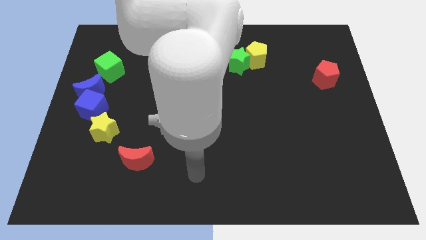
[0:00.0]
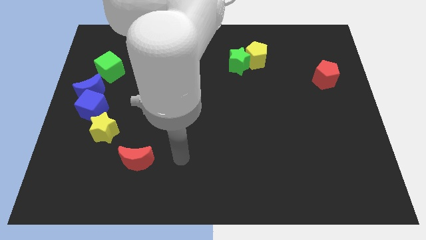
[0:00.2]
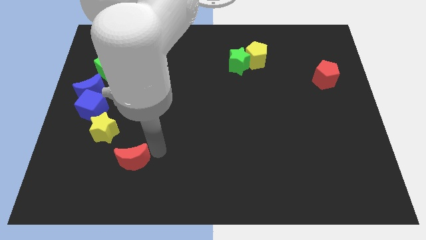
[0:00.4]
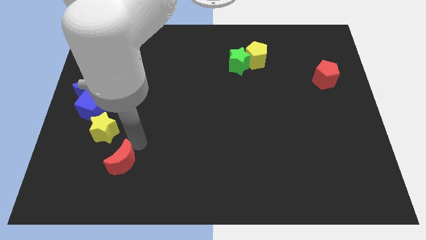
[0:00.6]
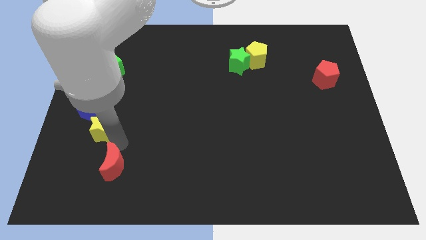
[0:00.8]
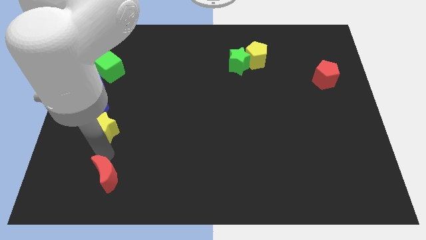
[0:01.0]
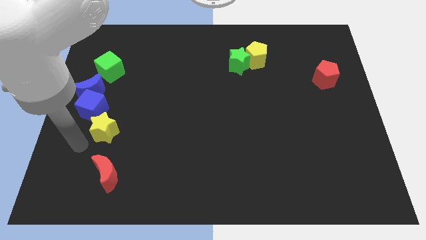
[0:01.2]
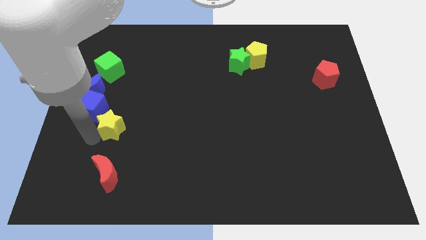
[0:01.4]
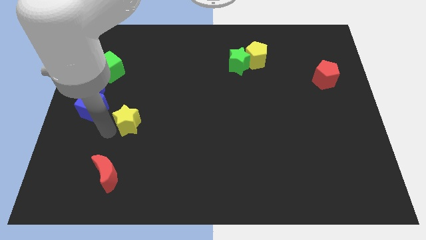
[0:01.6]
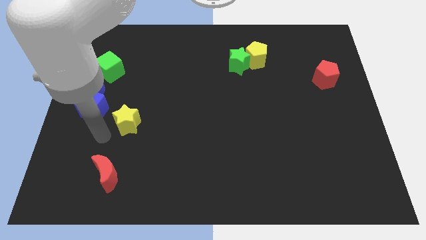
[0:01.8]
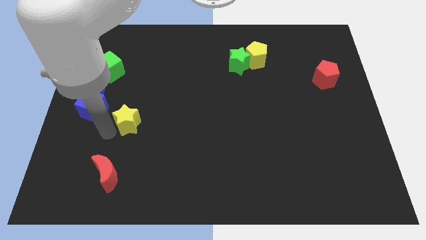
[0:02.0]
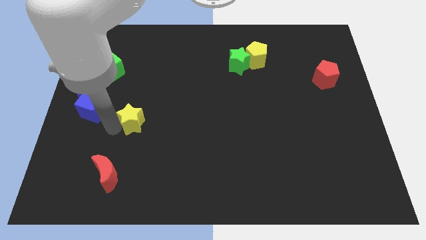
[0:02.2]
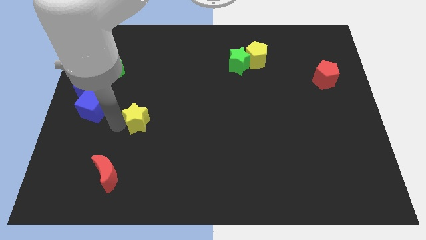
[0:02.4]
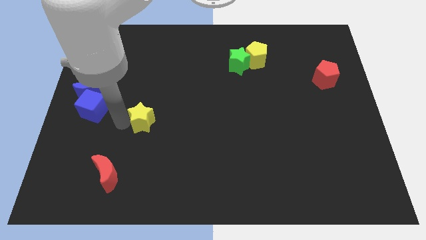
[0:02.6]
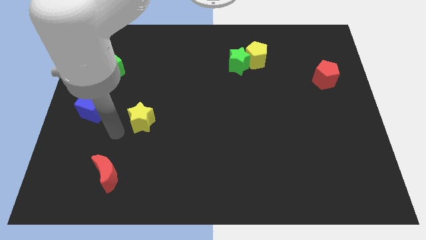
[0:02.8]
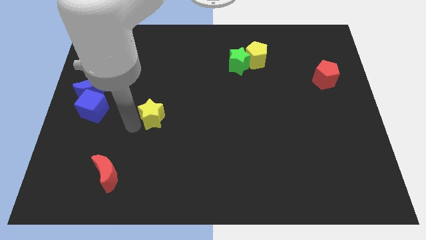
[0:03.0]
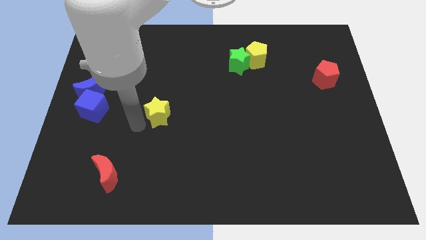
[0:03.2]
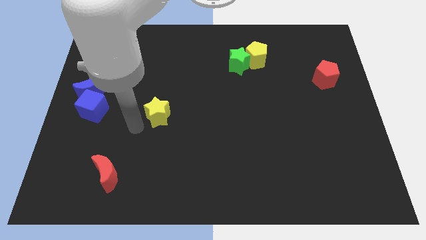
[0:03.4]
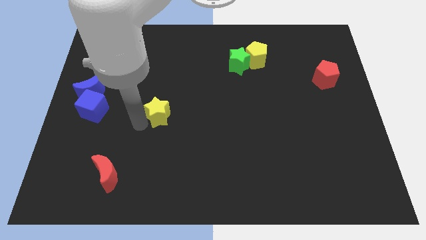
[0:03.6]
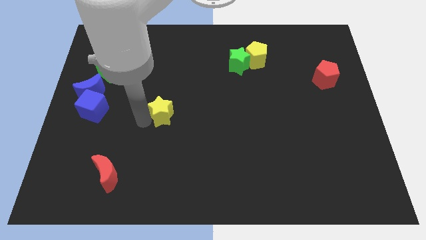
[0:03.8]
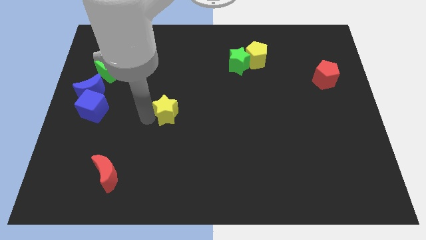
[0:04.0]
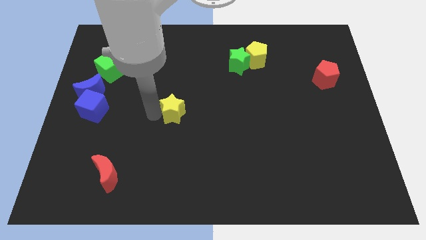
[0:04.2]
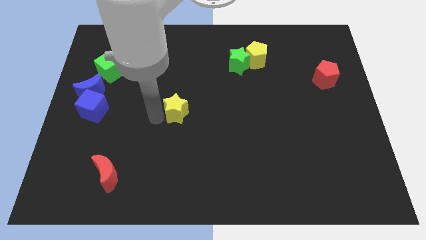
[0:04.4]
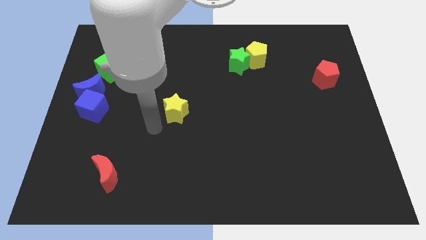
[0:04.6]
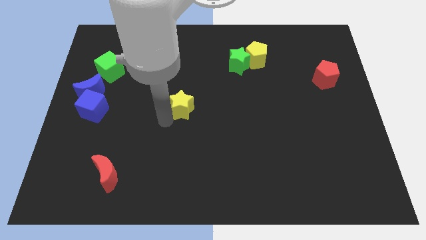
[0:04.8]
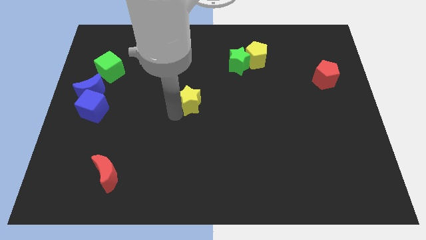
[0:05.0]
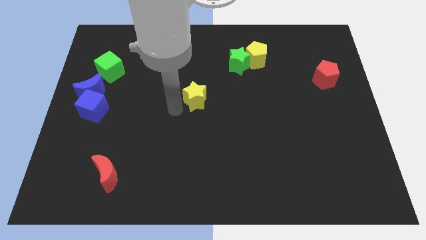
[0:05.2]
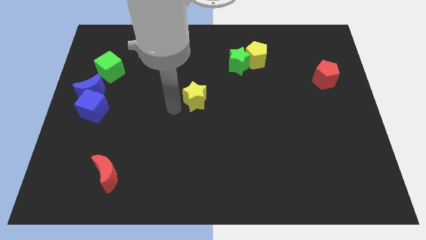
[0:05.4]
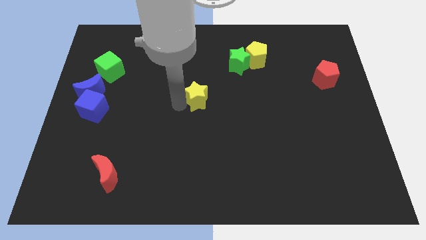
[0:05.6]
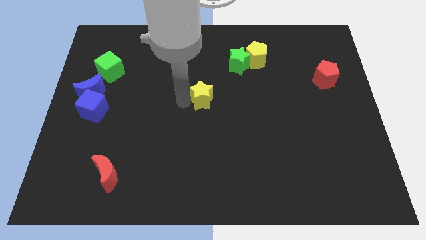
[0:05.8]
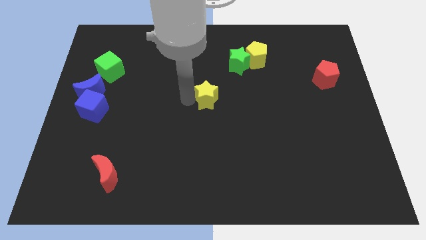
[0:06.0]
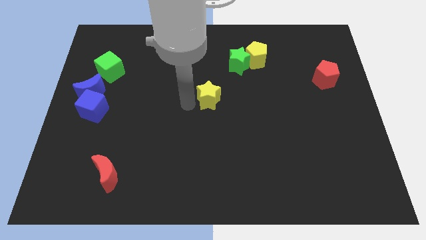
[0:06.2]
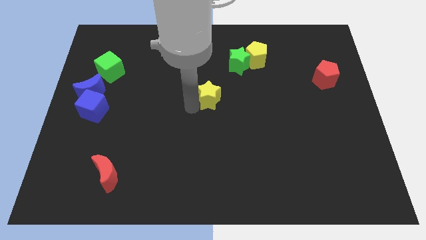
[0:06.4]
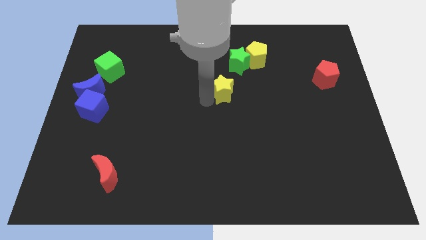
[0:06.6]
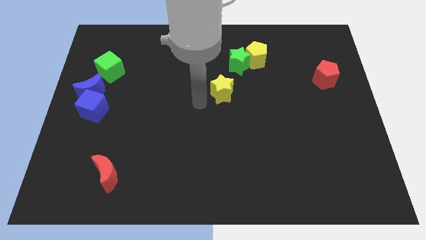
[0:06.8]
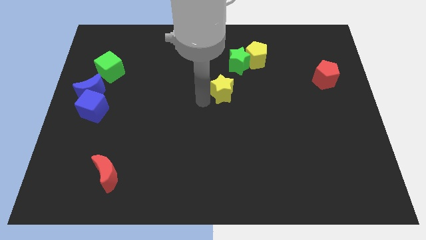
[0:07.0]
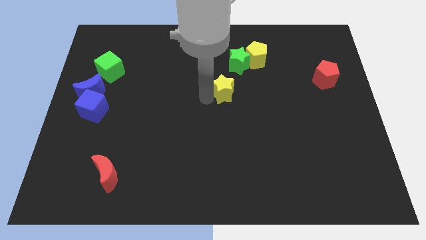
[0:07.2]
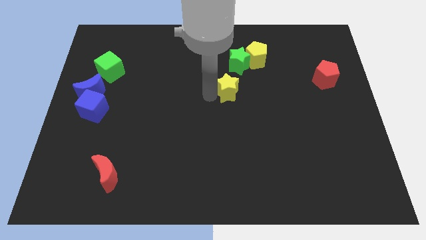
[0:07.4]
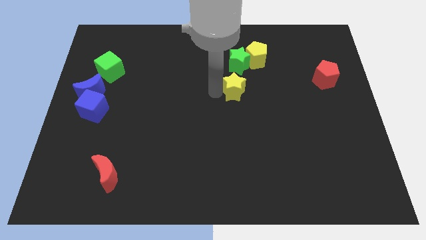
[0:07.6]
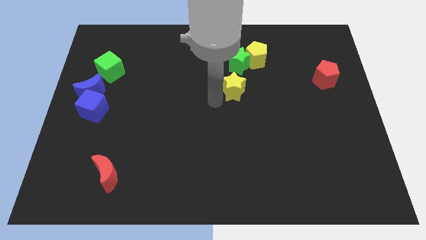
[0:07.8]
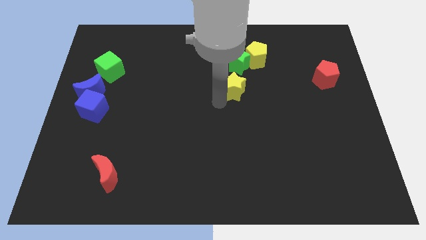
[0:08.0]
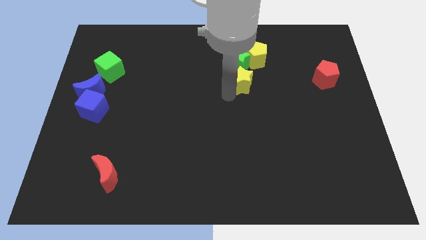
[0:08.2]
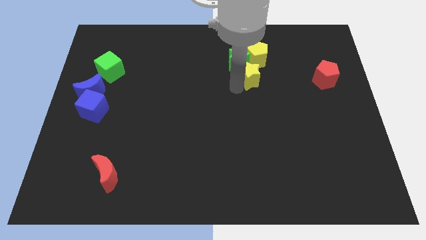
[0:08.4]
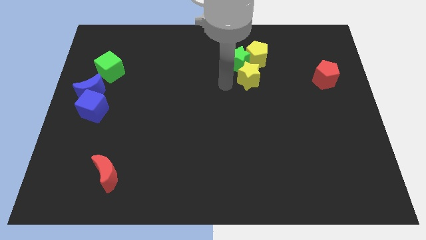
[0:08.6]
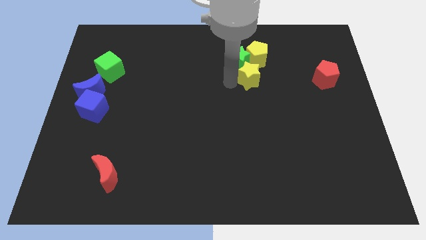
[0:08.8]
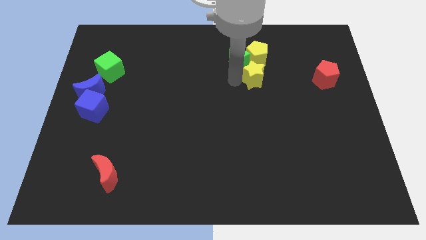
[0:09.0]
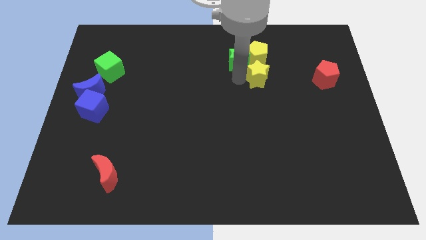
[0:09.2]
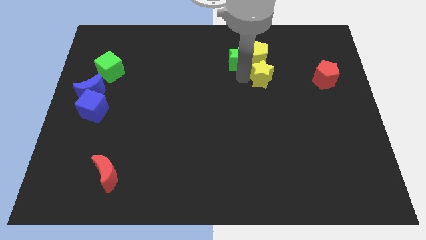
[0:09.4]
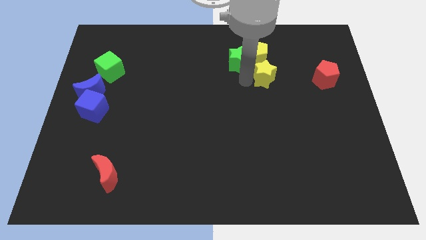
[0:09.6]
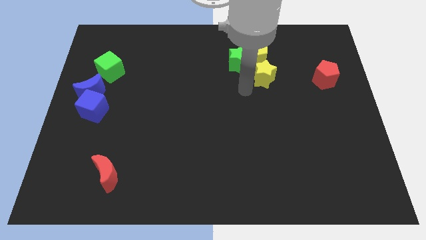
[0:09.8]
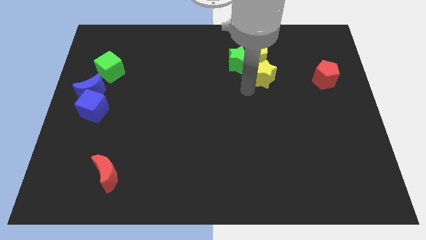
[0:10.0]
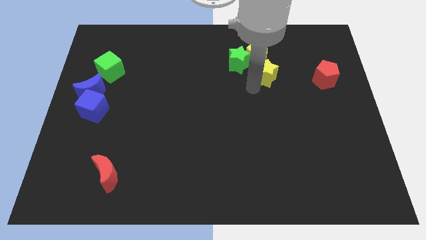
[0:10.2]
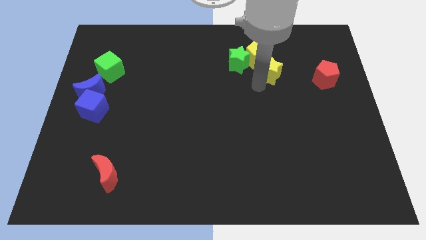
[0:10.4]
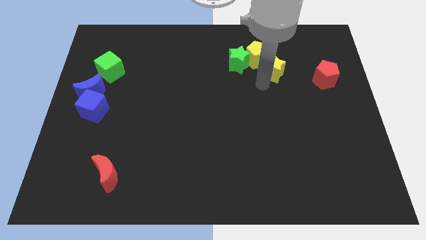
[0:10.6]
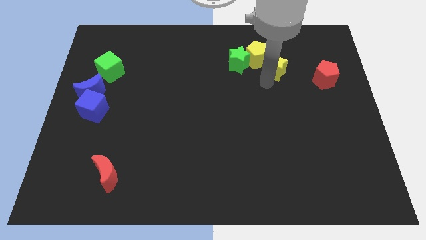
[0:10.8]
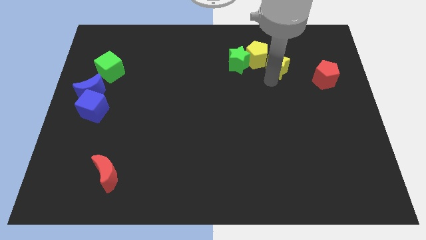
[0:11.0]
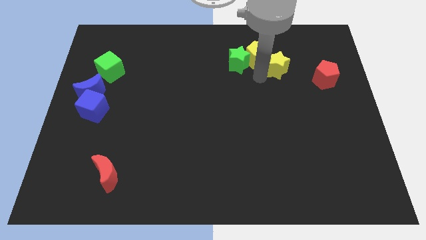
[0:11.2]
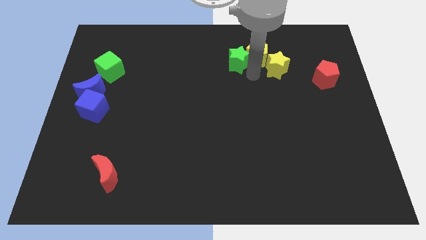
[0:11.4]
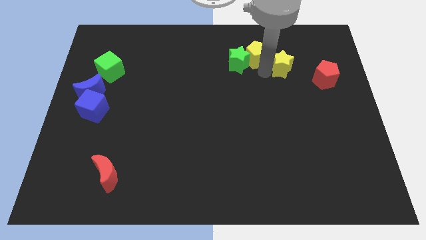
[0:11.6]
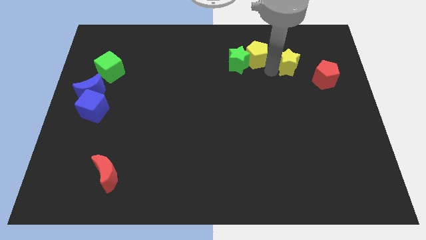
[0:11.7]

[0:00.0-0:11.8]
put the yellow star diagonally up and to the left of the red pentagon

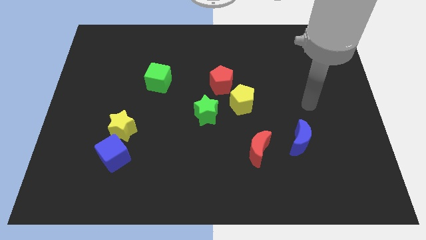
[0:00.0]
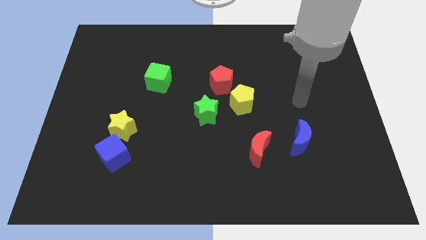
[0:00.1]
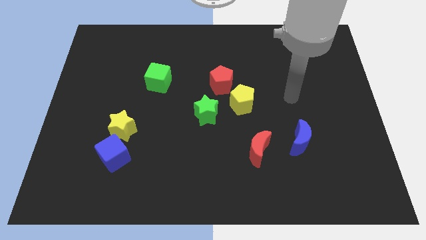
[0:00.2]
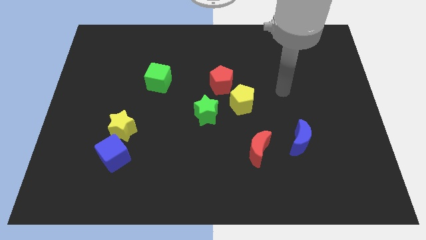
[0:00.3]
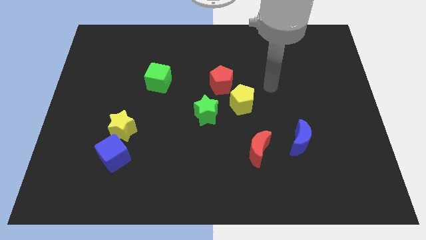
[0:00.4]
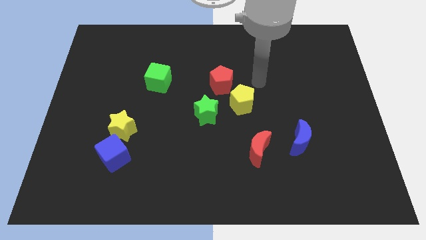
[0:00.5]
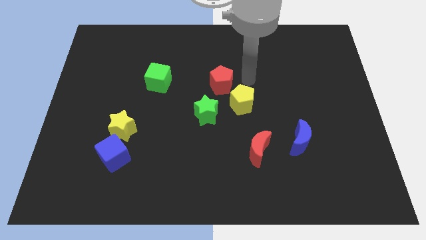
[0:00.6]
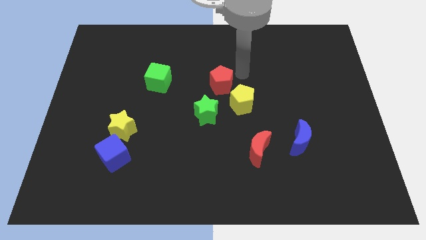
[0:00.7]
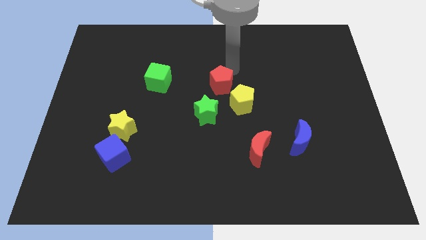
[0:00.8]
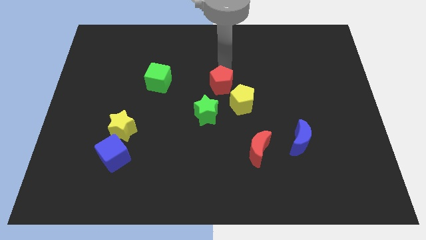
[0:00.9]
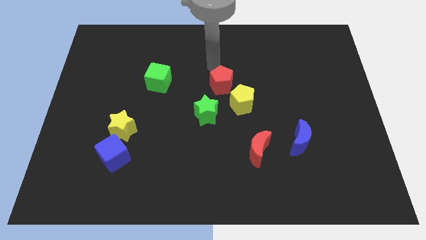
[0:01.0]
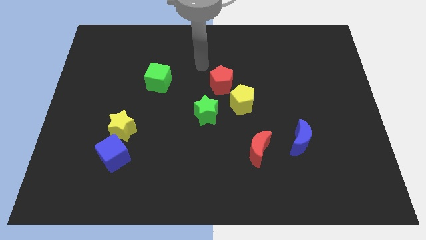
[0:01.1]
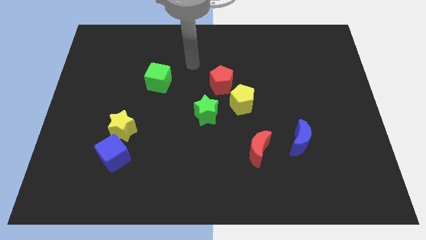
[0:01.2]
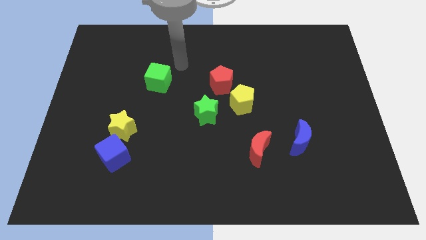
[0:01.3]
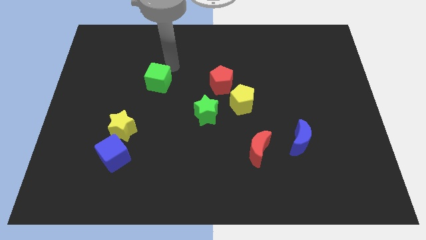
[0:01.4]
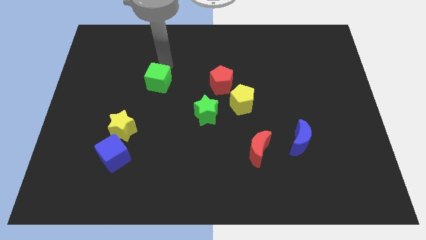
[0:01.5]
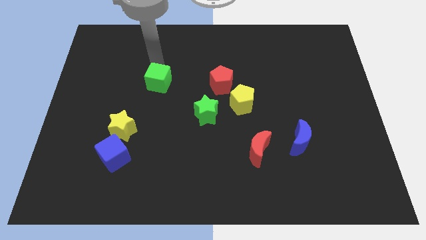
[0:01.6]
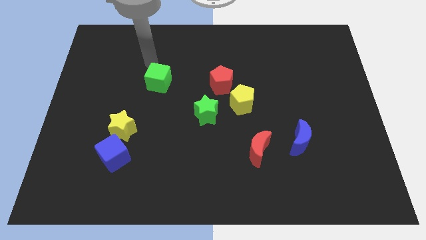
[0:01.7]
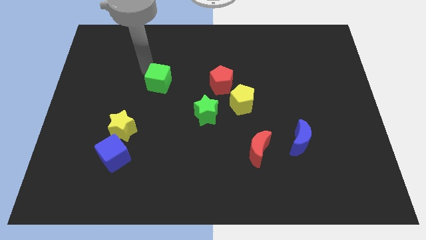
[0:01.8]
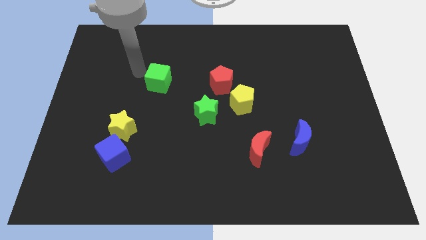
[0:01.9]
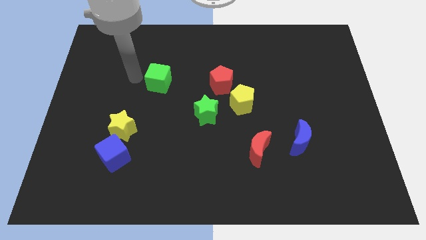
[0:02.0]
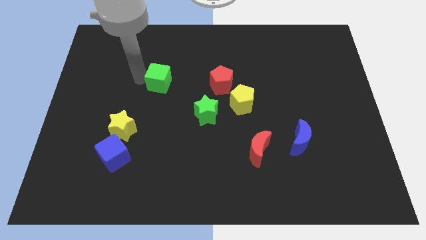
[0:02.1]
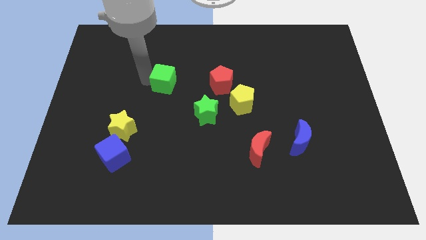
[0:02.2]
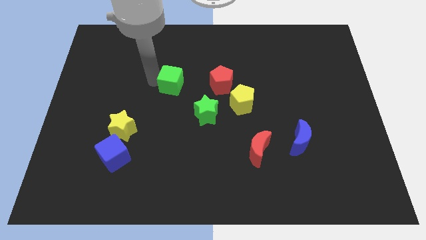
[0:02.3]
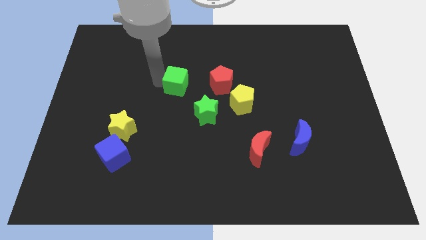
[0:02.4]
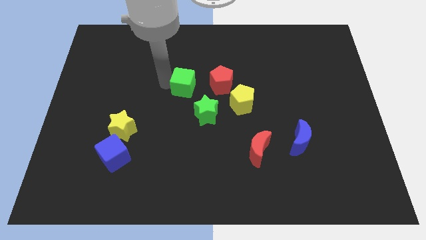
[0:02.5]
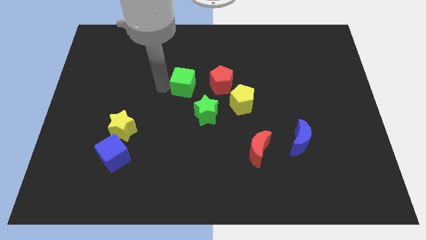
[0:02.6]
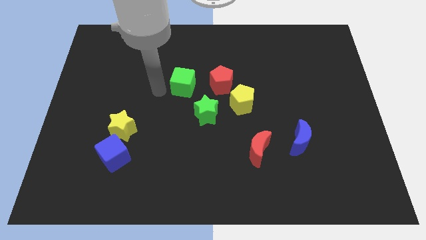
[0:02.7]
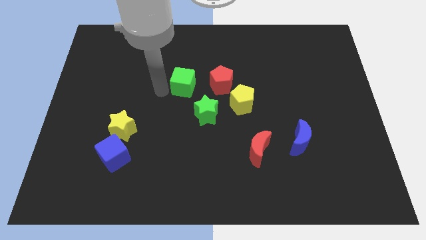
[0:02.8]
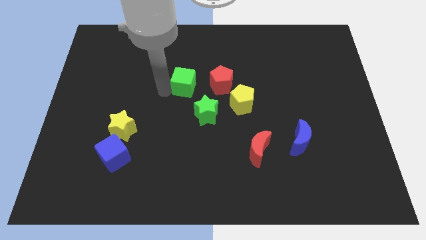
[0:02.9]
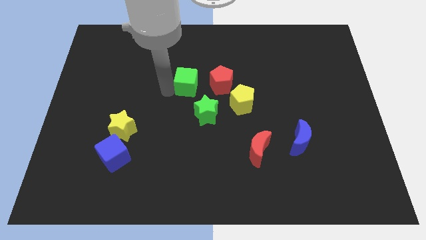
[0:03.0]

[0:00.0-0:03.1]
move the green cube to the top of the green star
